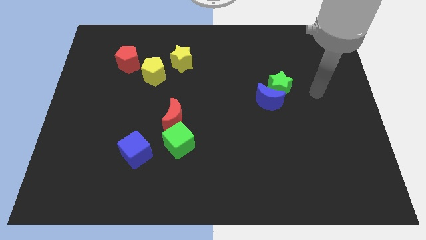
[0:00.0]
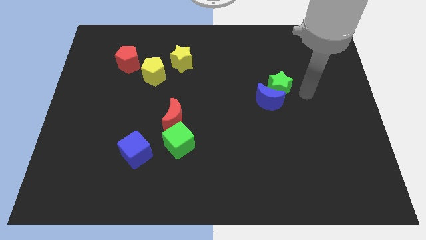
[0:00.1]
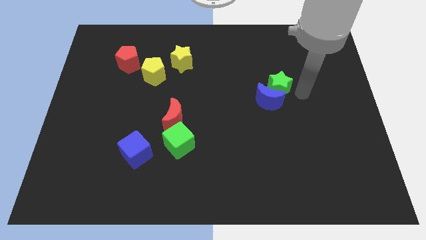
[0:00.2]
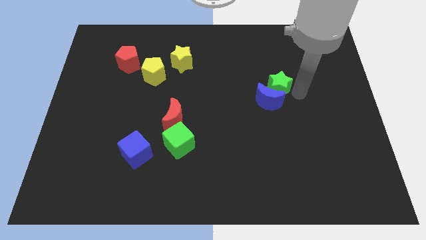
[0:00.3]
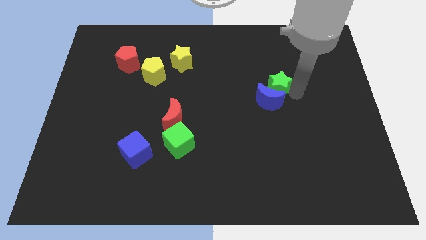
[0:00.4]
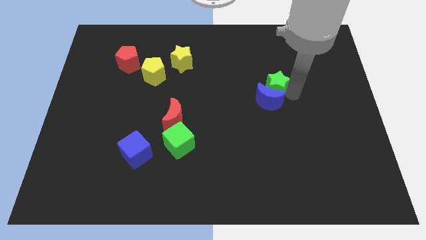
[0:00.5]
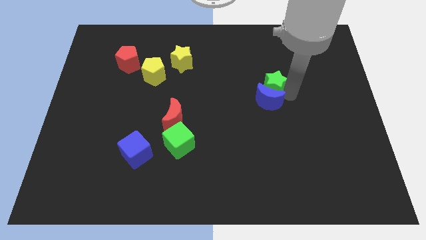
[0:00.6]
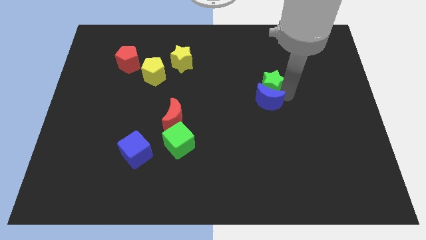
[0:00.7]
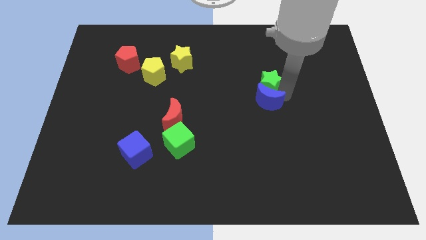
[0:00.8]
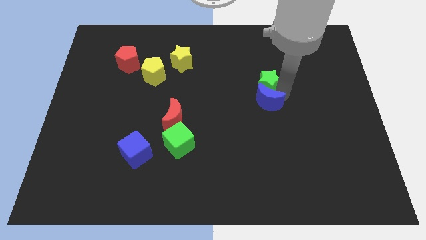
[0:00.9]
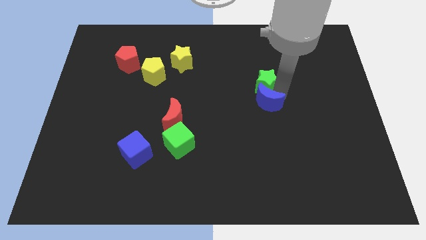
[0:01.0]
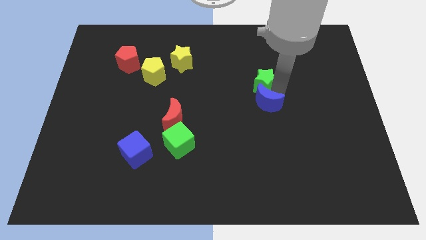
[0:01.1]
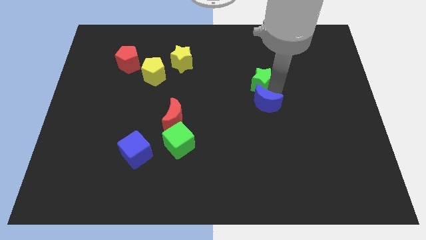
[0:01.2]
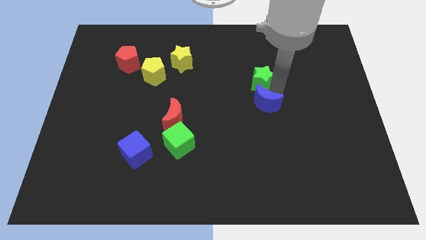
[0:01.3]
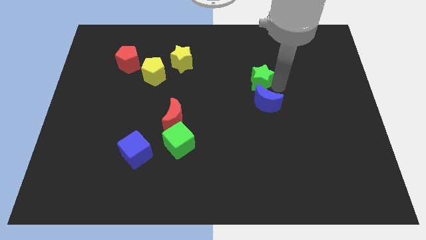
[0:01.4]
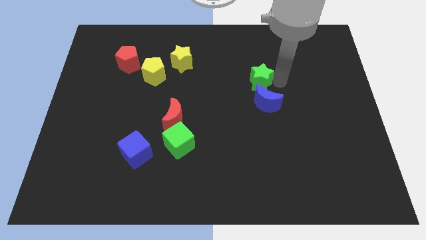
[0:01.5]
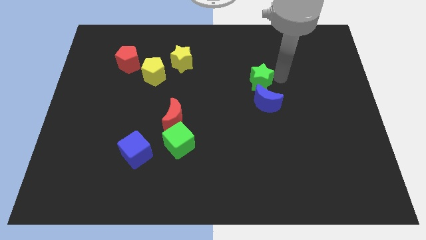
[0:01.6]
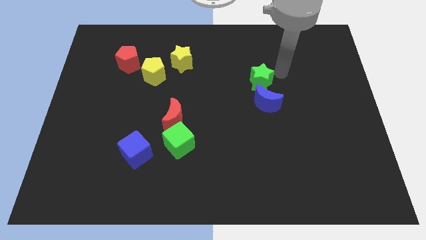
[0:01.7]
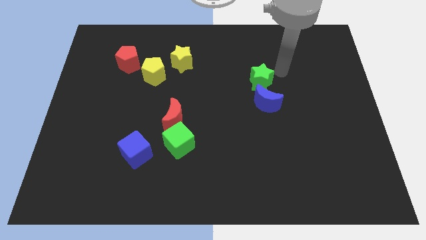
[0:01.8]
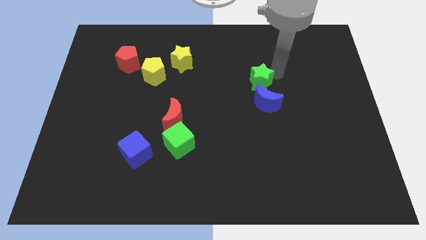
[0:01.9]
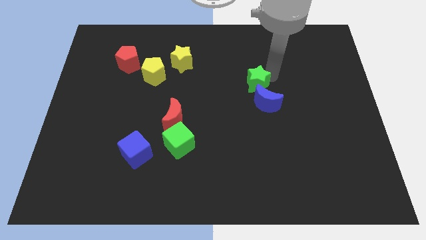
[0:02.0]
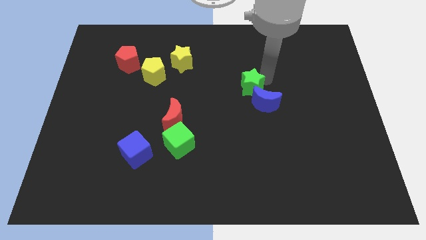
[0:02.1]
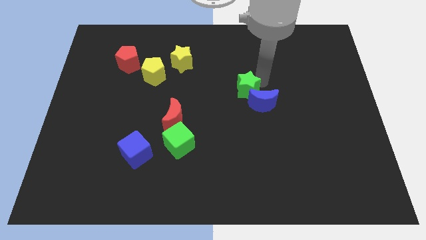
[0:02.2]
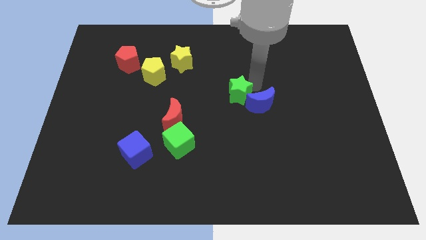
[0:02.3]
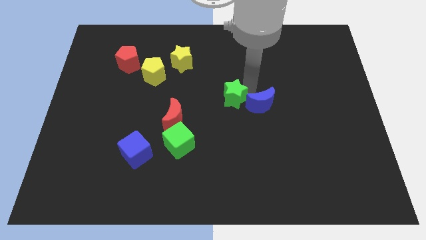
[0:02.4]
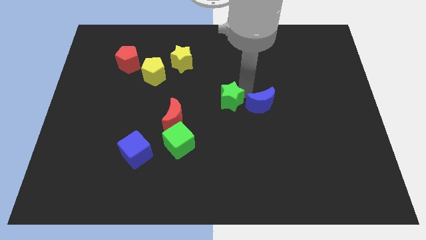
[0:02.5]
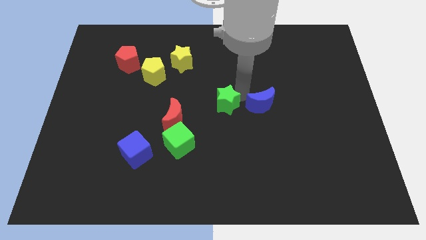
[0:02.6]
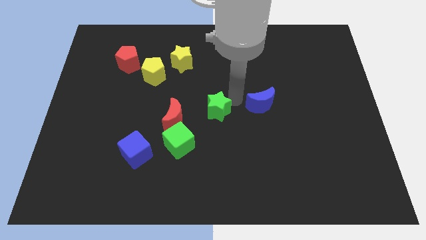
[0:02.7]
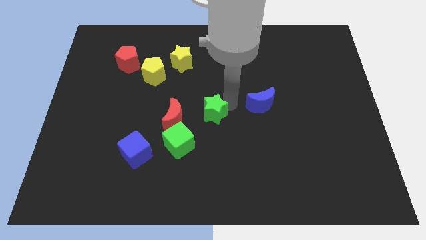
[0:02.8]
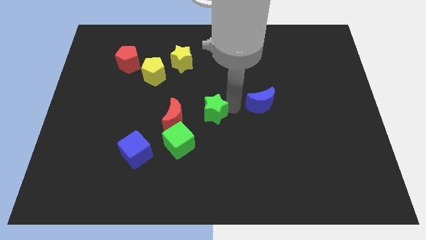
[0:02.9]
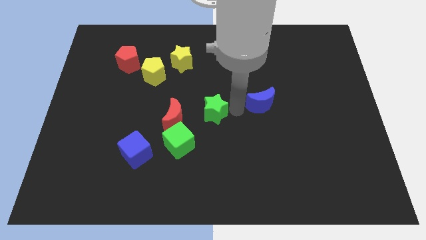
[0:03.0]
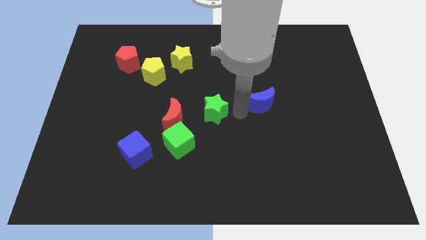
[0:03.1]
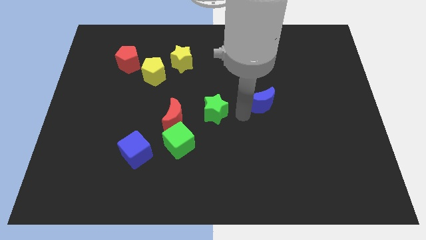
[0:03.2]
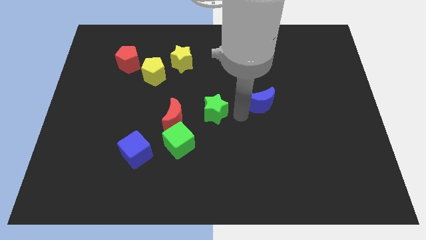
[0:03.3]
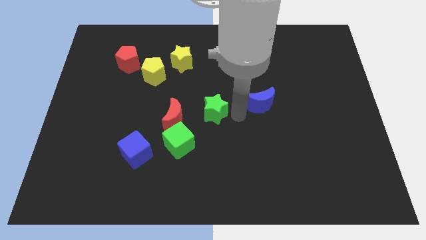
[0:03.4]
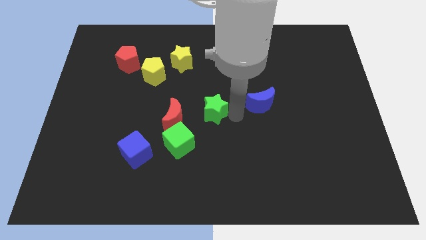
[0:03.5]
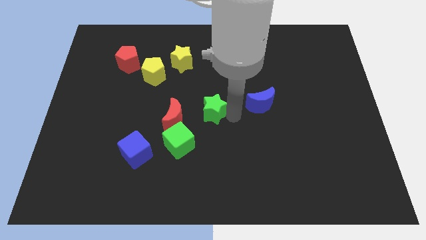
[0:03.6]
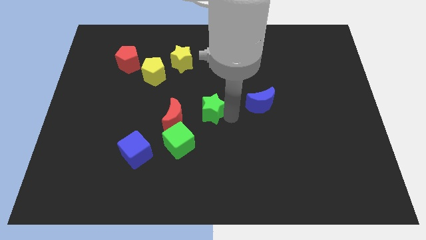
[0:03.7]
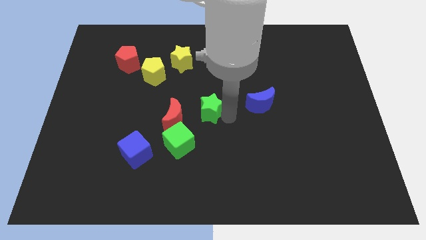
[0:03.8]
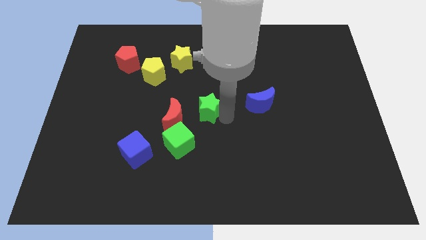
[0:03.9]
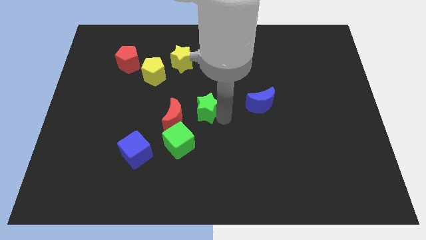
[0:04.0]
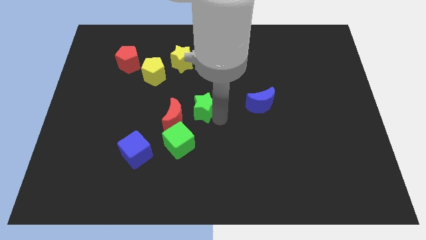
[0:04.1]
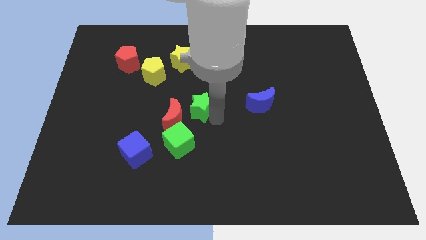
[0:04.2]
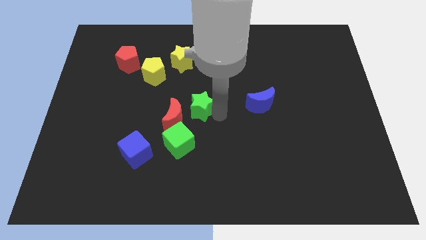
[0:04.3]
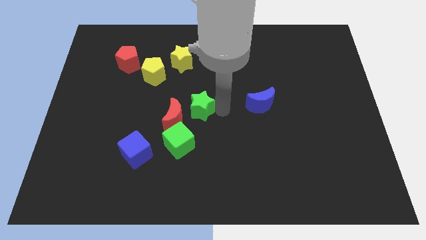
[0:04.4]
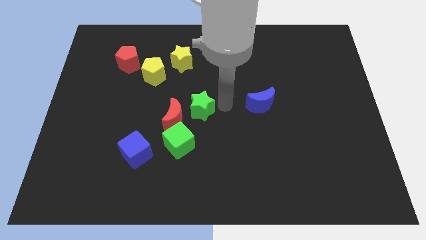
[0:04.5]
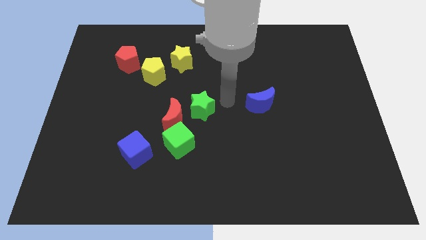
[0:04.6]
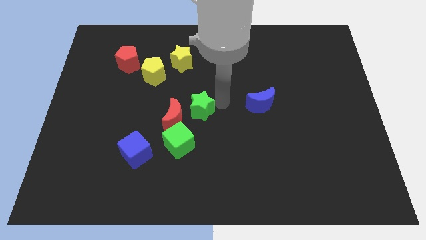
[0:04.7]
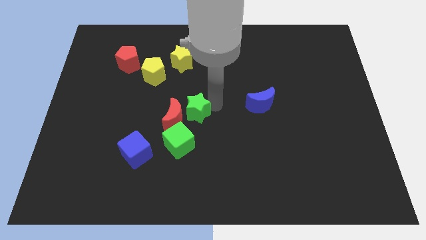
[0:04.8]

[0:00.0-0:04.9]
move the green star next to the red moon

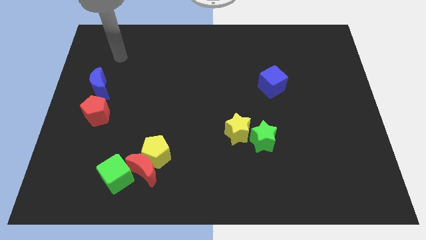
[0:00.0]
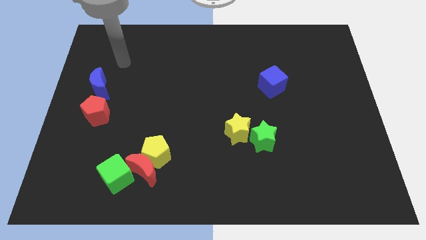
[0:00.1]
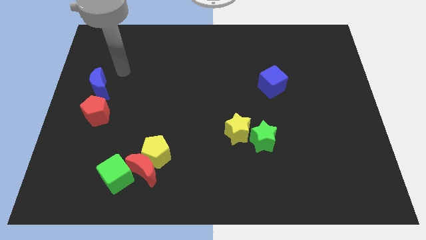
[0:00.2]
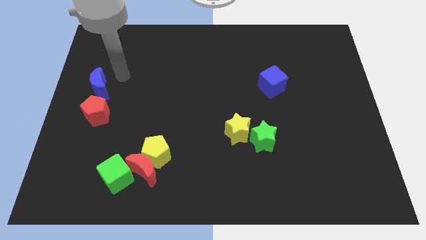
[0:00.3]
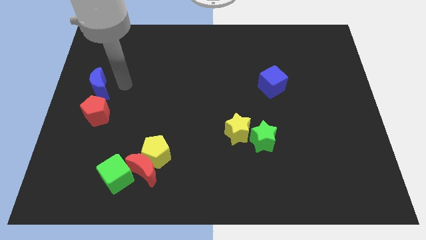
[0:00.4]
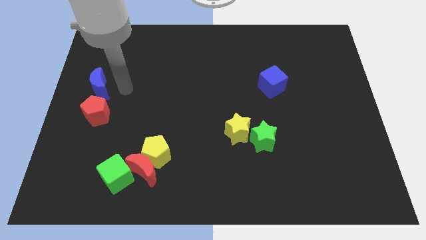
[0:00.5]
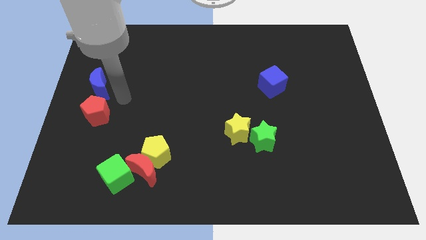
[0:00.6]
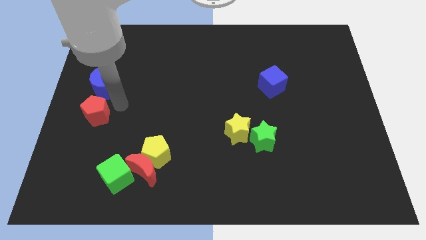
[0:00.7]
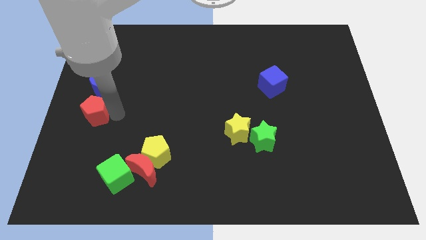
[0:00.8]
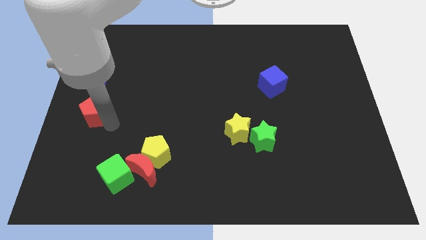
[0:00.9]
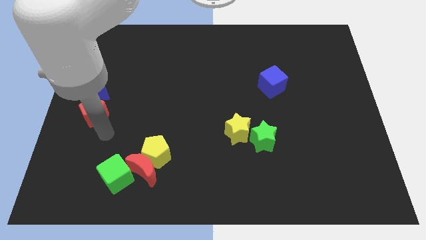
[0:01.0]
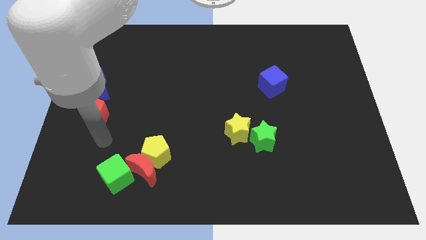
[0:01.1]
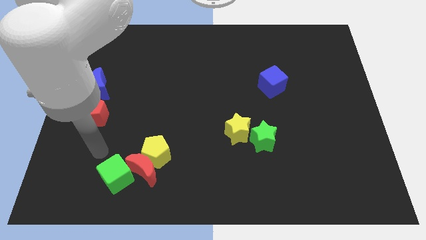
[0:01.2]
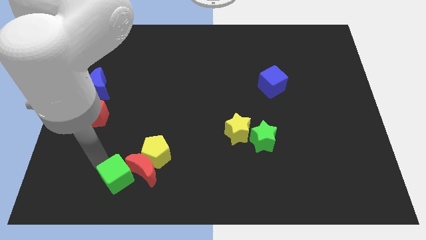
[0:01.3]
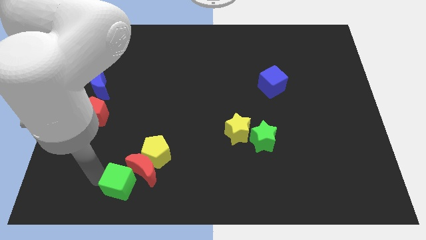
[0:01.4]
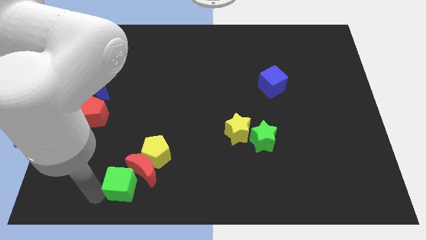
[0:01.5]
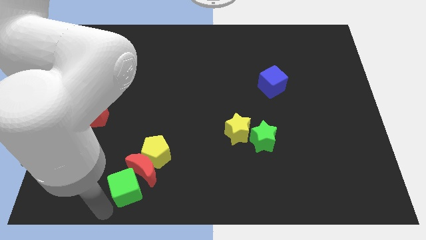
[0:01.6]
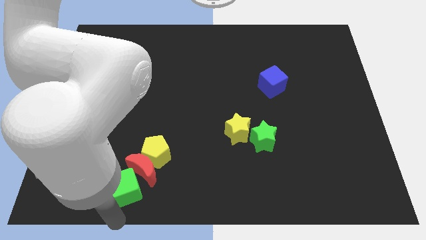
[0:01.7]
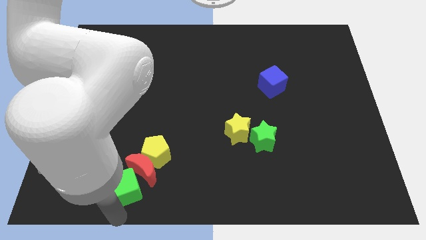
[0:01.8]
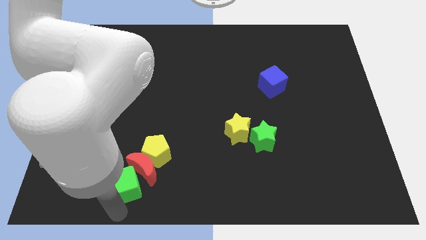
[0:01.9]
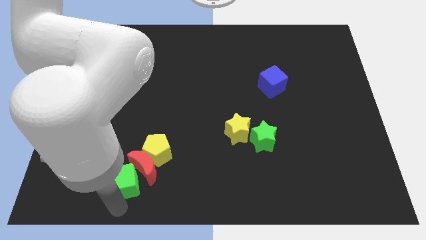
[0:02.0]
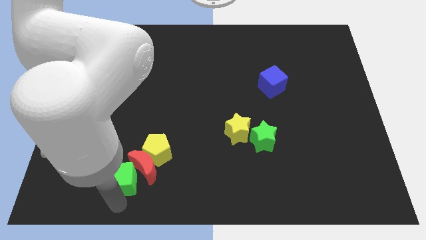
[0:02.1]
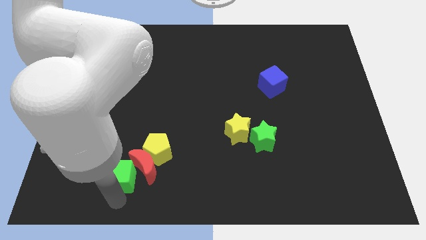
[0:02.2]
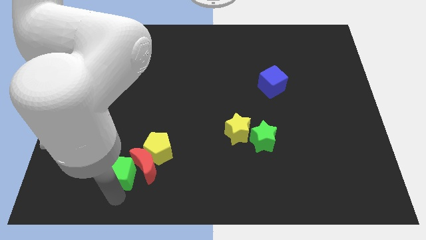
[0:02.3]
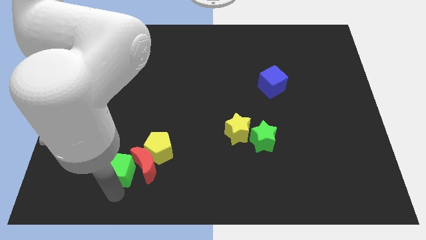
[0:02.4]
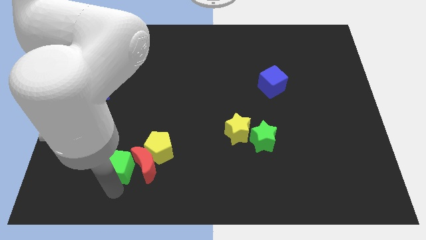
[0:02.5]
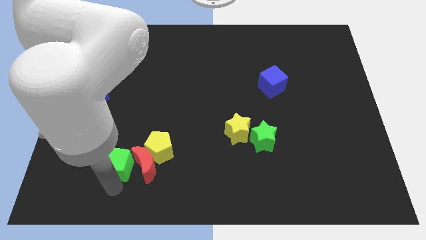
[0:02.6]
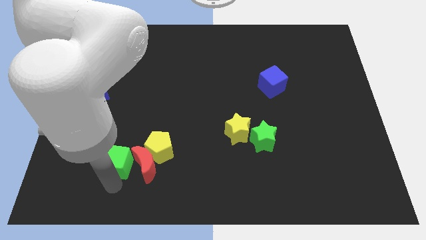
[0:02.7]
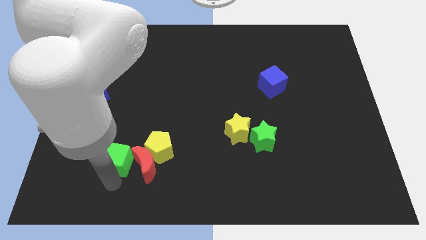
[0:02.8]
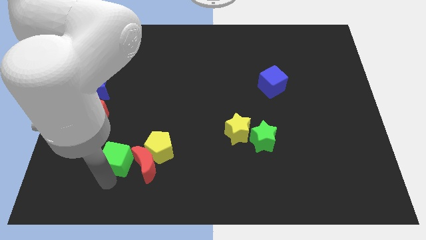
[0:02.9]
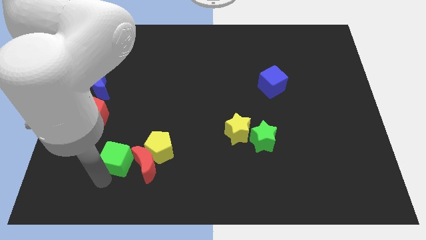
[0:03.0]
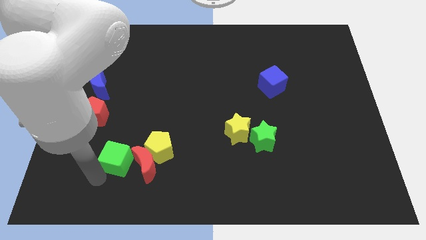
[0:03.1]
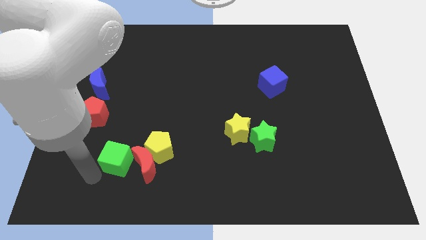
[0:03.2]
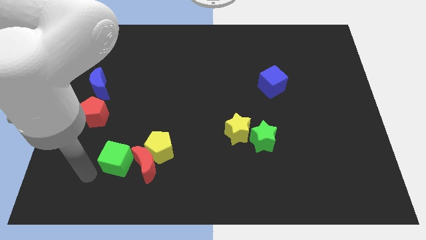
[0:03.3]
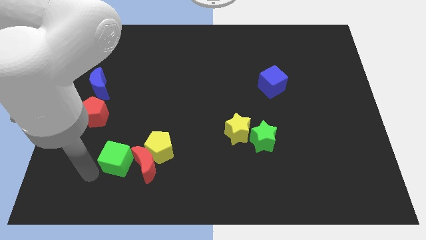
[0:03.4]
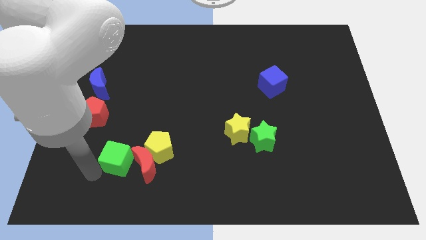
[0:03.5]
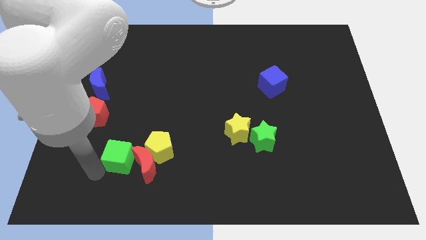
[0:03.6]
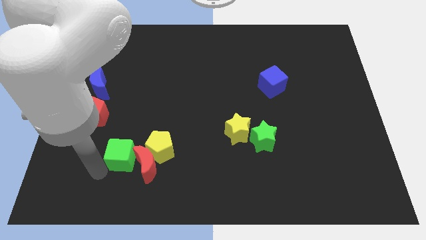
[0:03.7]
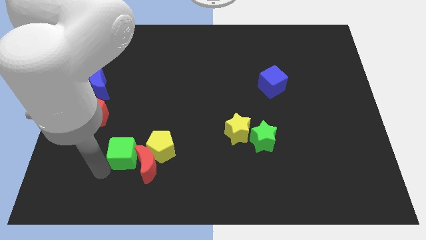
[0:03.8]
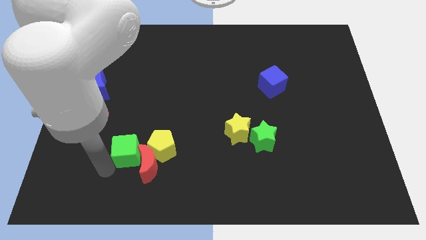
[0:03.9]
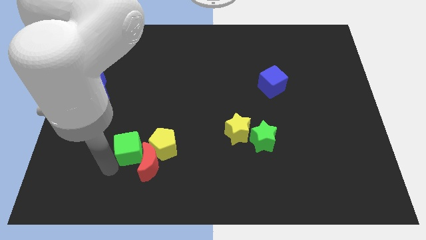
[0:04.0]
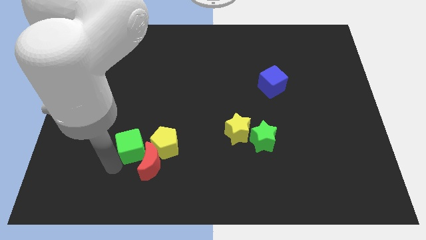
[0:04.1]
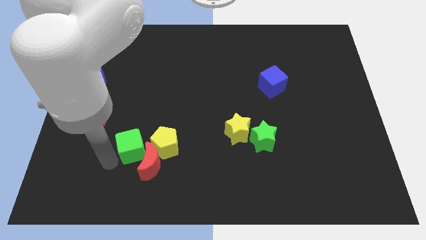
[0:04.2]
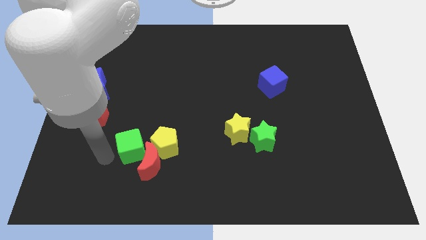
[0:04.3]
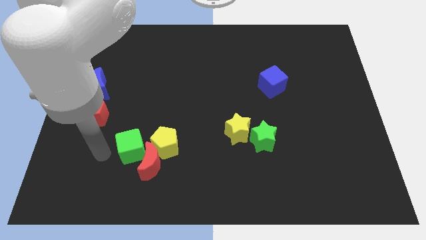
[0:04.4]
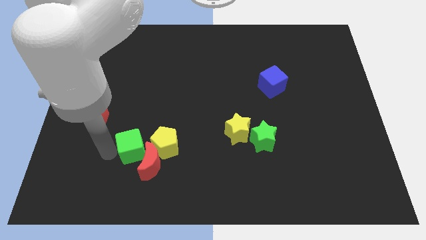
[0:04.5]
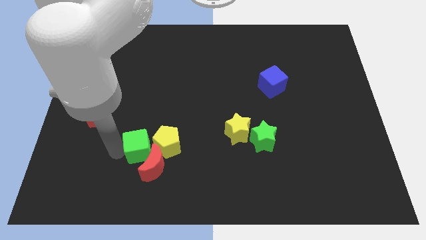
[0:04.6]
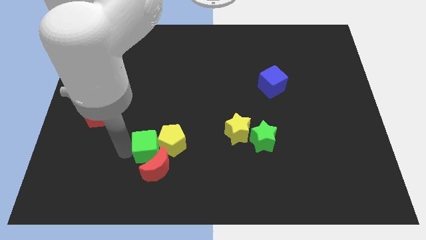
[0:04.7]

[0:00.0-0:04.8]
put the green cube to the yellow pentagon
